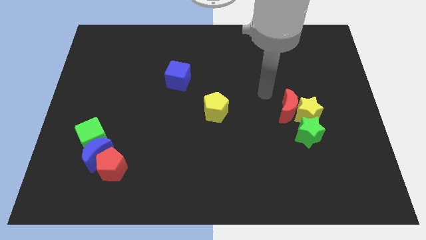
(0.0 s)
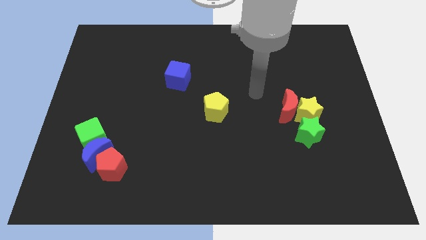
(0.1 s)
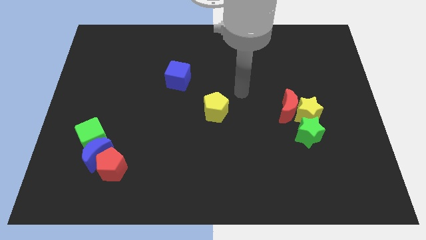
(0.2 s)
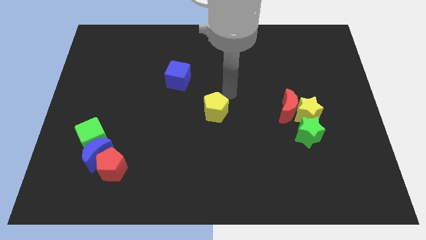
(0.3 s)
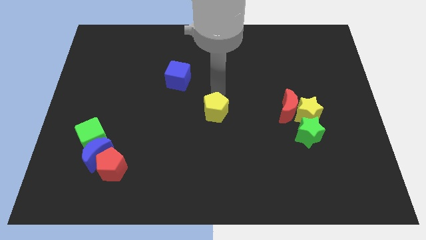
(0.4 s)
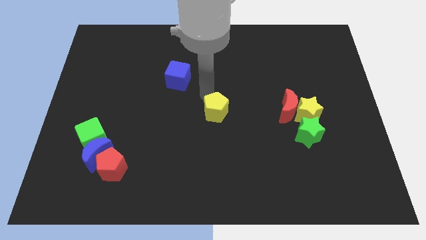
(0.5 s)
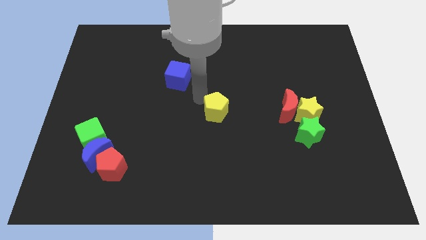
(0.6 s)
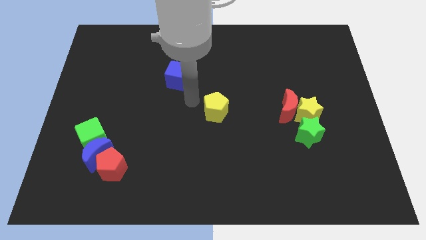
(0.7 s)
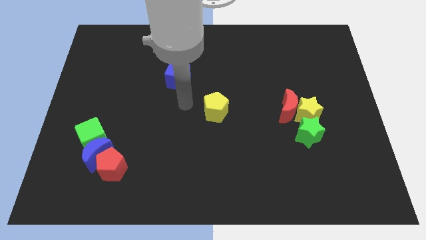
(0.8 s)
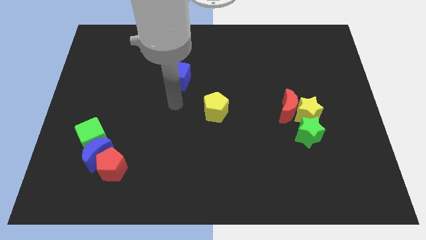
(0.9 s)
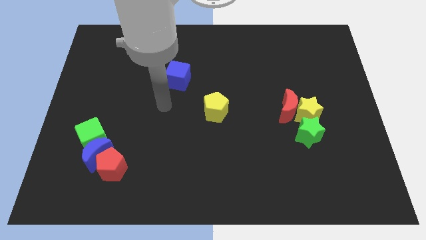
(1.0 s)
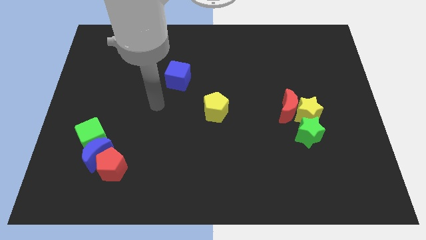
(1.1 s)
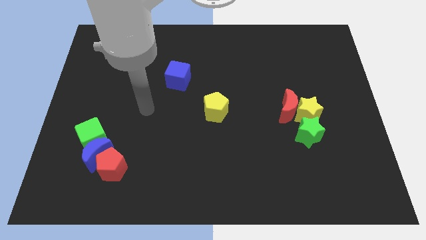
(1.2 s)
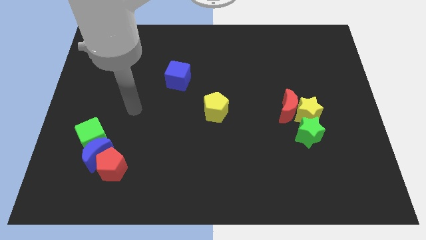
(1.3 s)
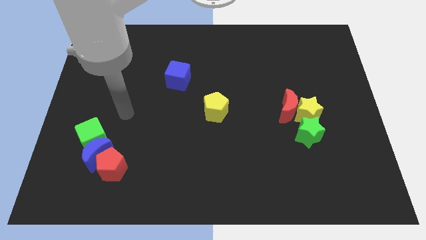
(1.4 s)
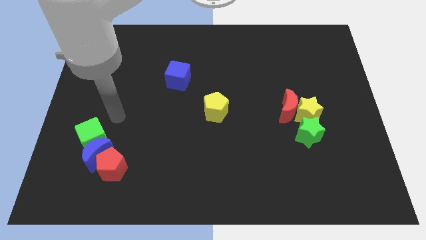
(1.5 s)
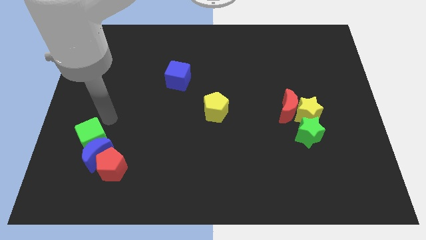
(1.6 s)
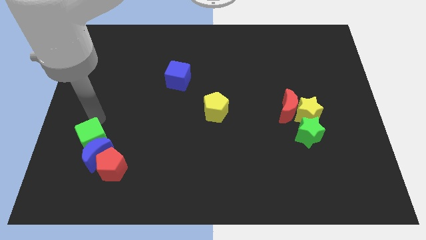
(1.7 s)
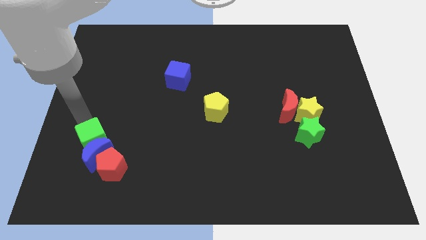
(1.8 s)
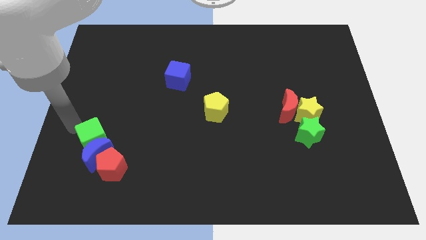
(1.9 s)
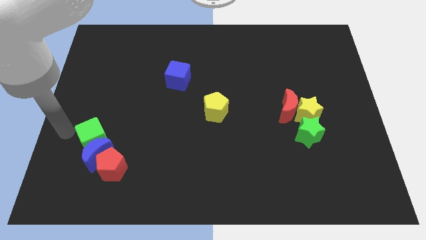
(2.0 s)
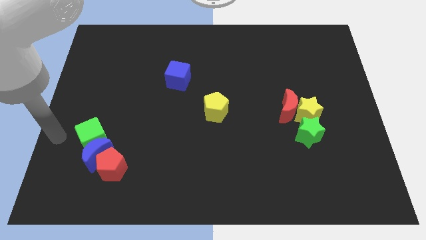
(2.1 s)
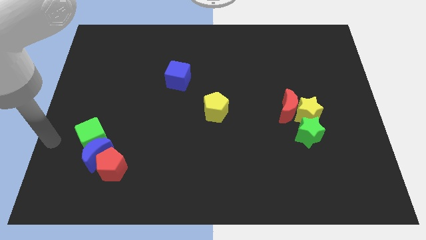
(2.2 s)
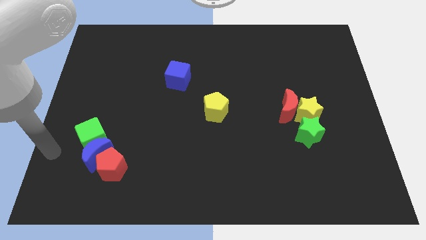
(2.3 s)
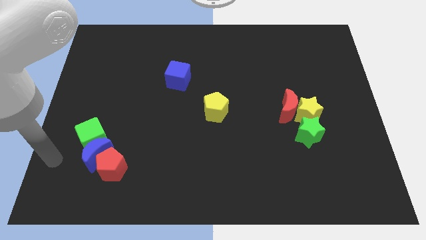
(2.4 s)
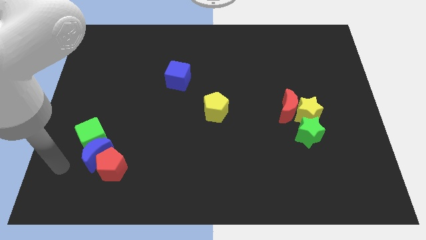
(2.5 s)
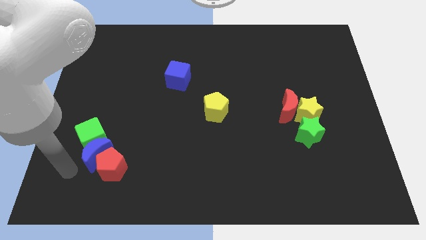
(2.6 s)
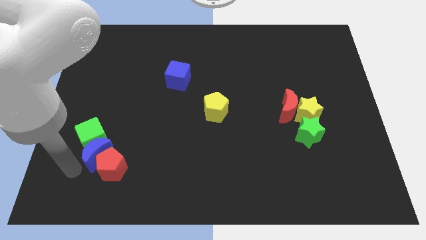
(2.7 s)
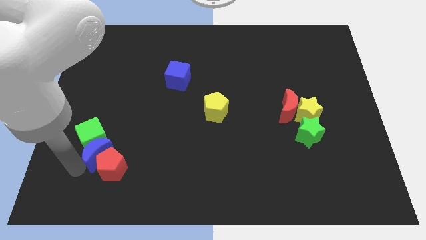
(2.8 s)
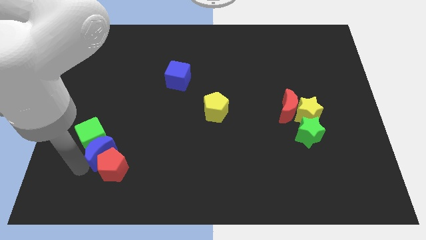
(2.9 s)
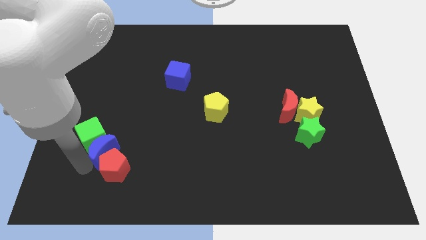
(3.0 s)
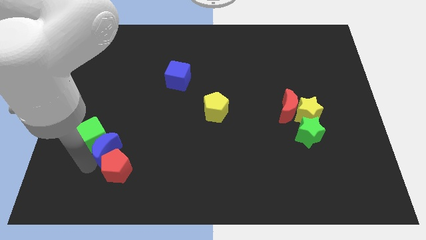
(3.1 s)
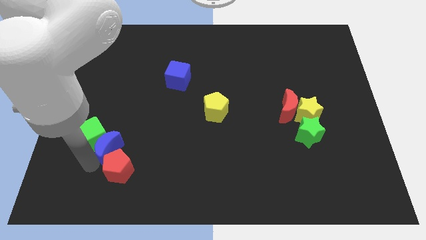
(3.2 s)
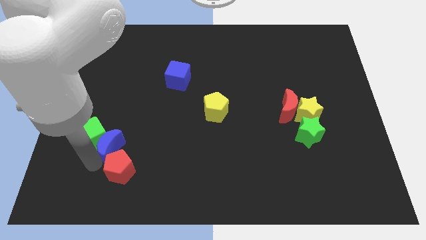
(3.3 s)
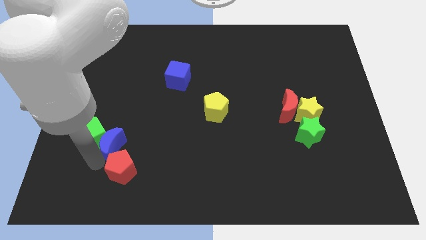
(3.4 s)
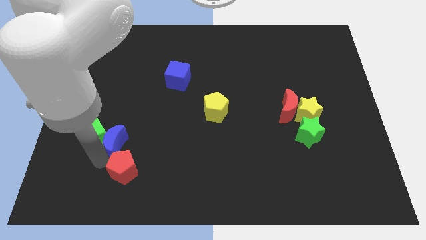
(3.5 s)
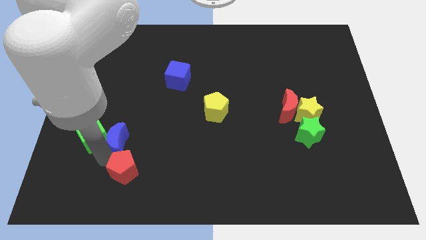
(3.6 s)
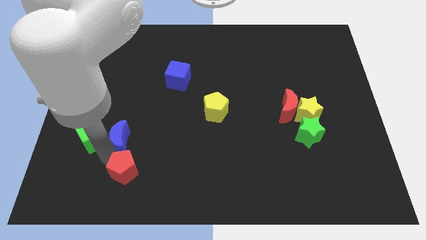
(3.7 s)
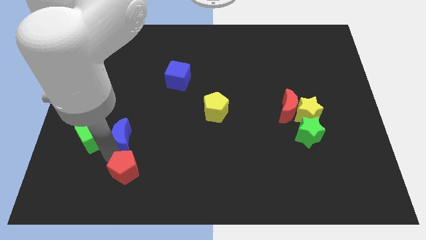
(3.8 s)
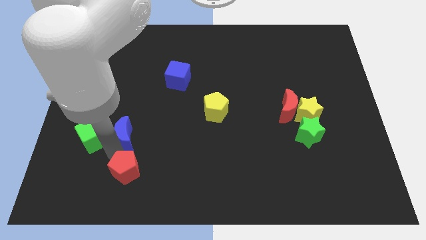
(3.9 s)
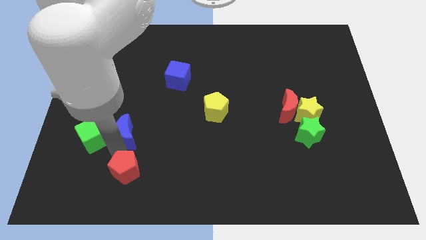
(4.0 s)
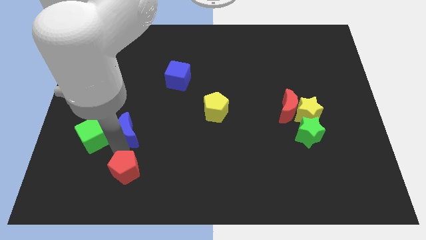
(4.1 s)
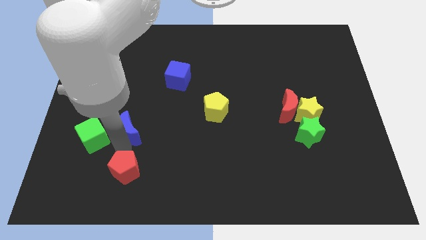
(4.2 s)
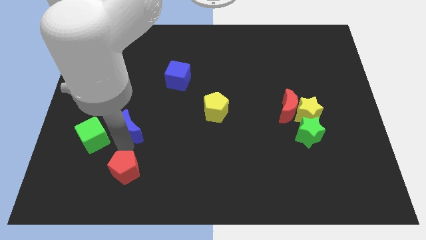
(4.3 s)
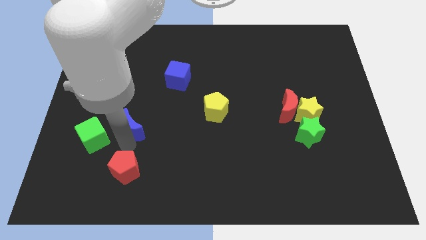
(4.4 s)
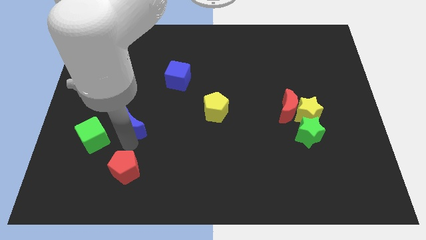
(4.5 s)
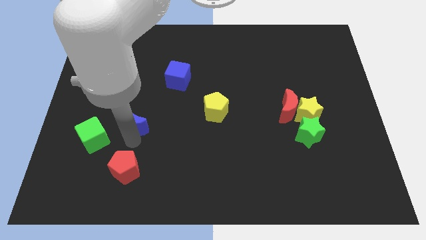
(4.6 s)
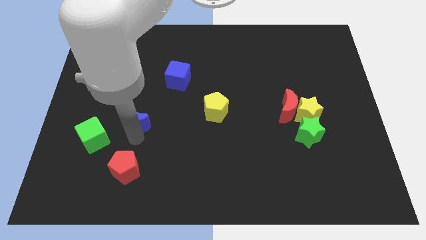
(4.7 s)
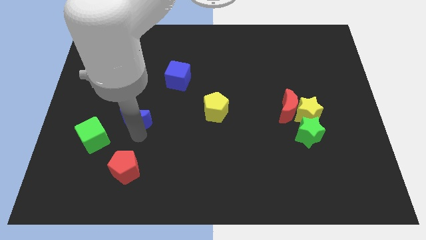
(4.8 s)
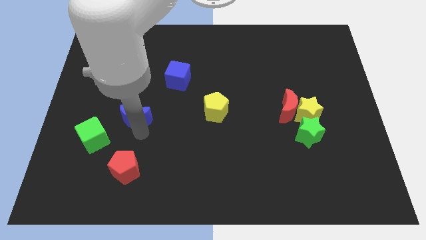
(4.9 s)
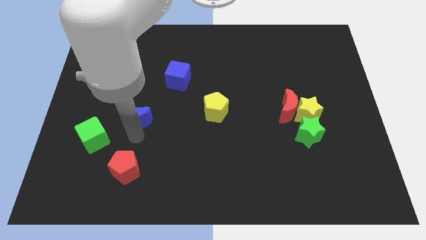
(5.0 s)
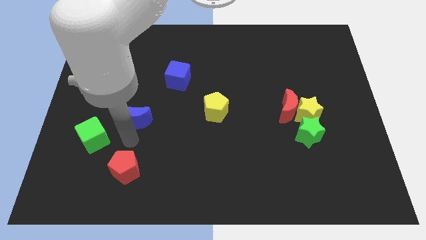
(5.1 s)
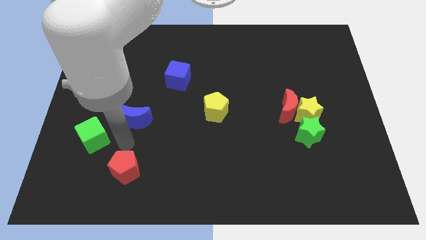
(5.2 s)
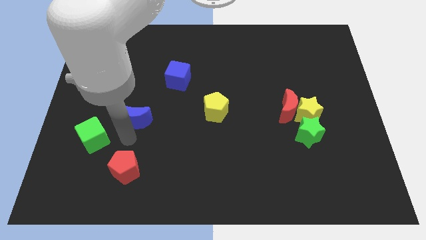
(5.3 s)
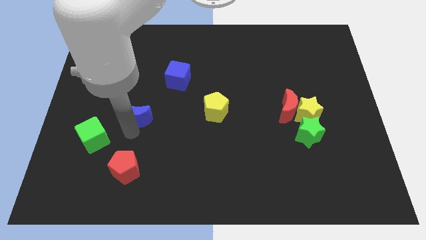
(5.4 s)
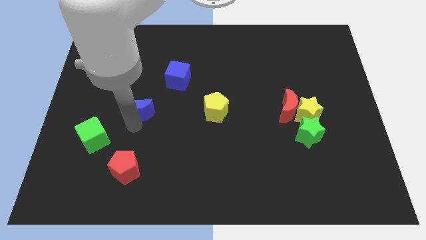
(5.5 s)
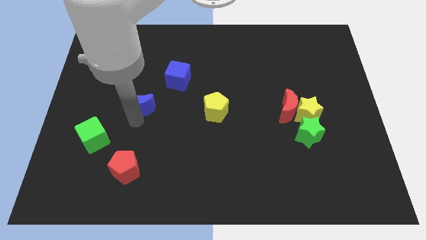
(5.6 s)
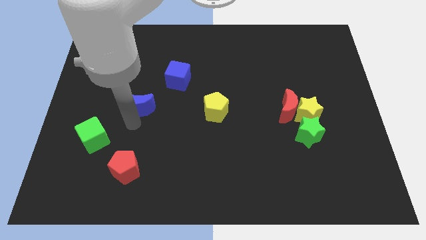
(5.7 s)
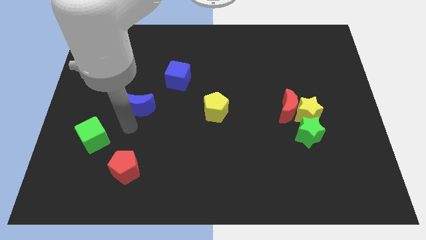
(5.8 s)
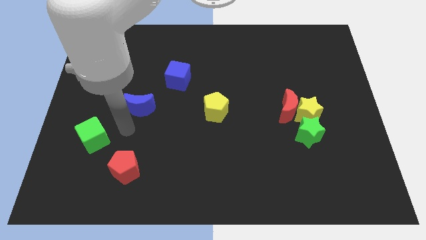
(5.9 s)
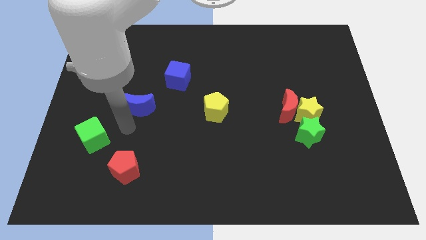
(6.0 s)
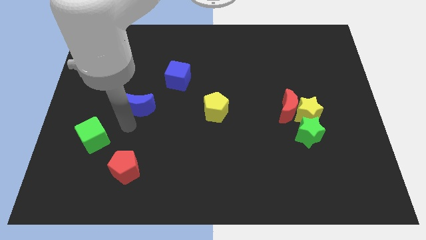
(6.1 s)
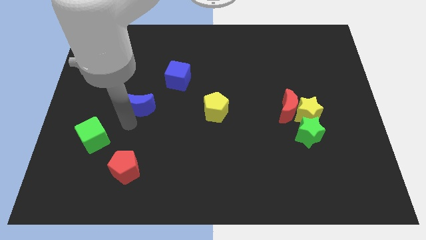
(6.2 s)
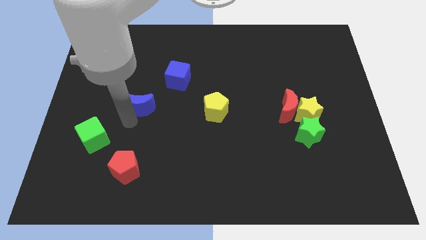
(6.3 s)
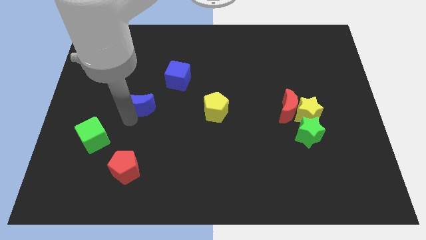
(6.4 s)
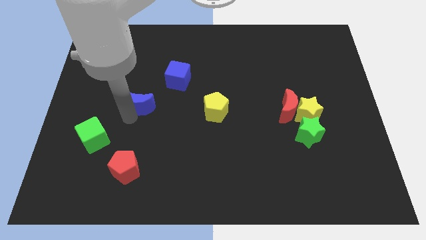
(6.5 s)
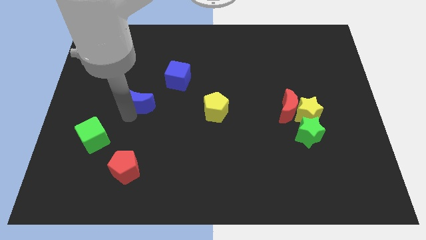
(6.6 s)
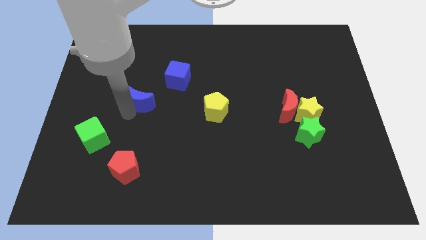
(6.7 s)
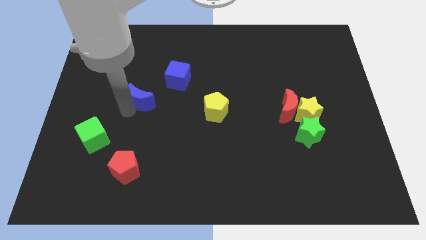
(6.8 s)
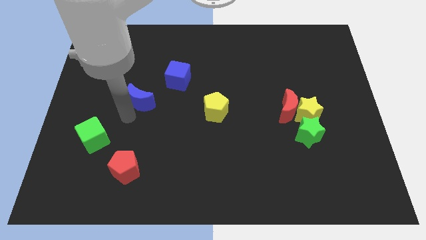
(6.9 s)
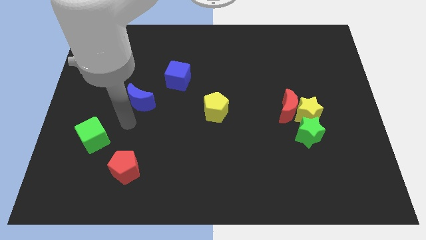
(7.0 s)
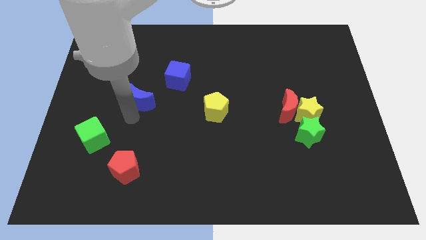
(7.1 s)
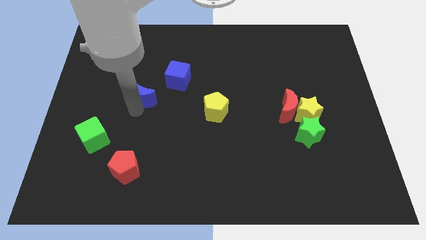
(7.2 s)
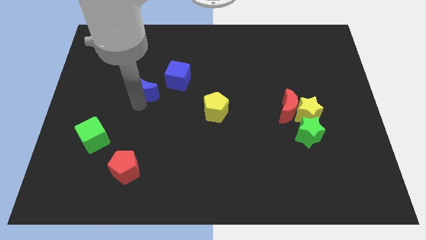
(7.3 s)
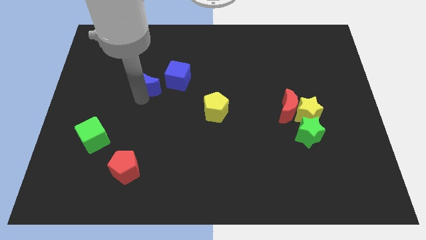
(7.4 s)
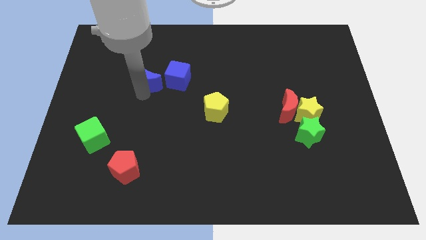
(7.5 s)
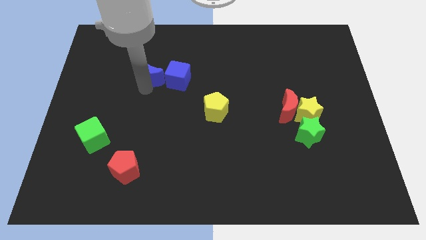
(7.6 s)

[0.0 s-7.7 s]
put the blue moon to the top left of the blue cube
